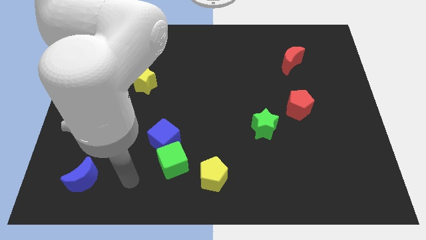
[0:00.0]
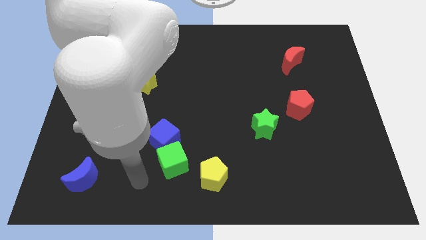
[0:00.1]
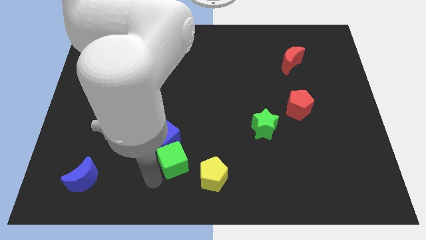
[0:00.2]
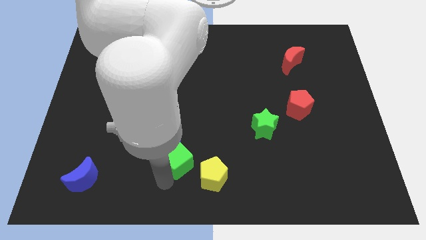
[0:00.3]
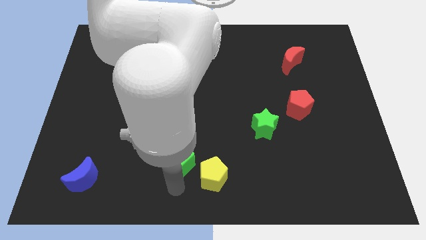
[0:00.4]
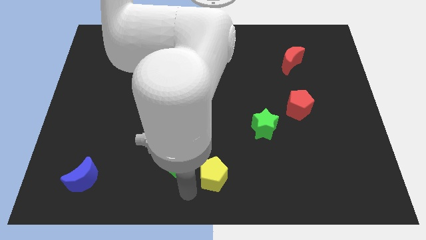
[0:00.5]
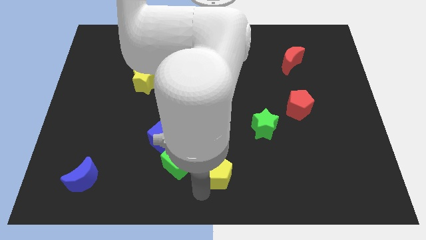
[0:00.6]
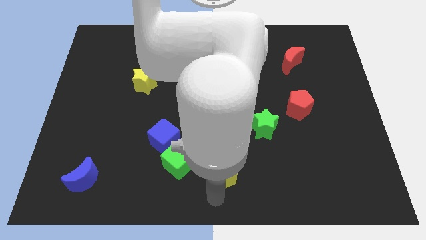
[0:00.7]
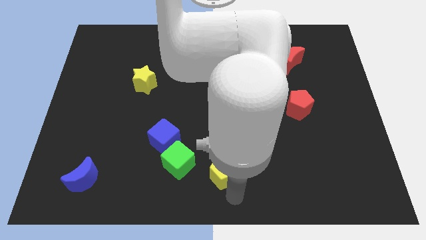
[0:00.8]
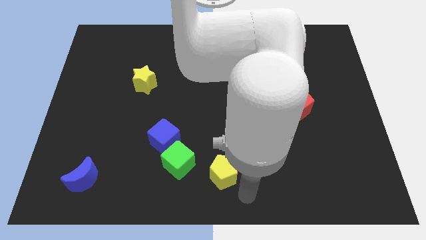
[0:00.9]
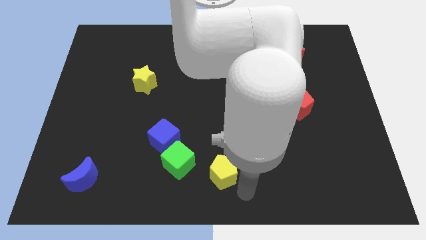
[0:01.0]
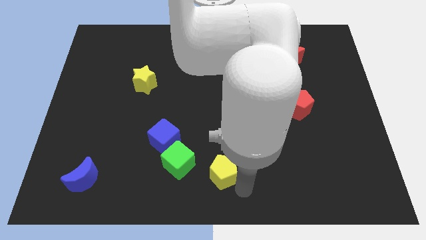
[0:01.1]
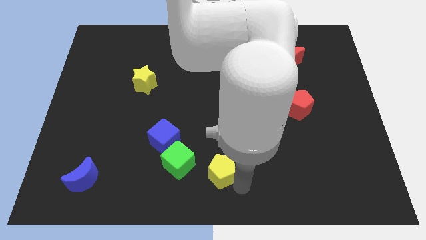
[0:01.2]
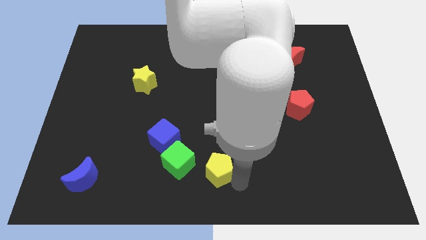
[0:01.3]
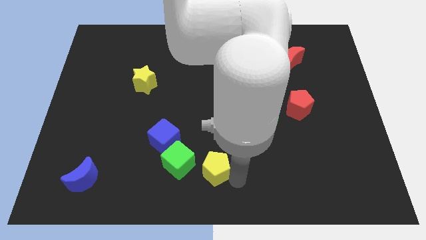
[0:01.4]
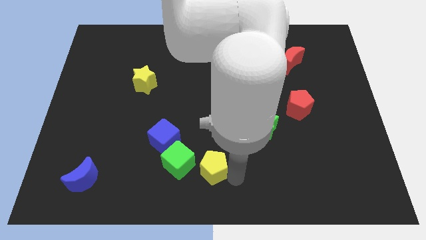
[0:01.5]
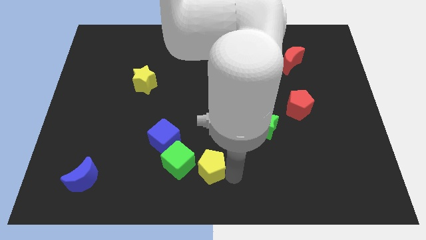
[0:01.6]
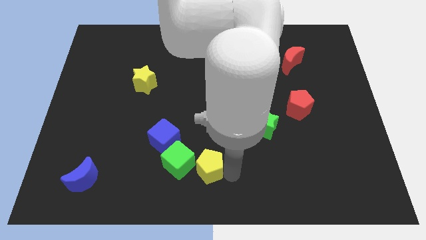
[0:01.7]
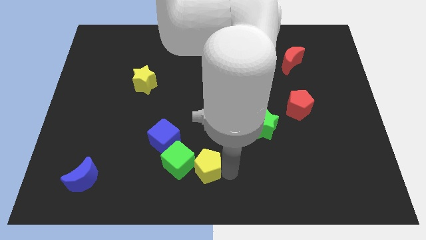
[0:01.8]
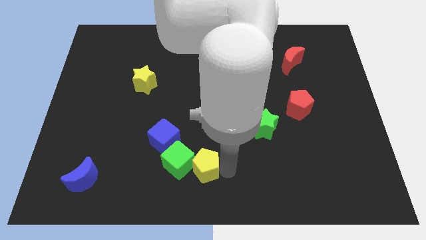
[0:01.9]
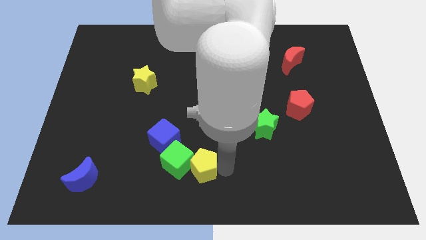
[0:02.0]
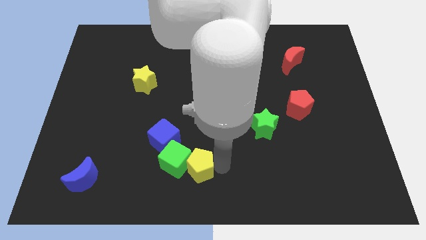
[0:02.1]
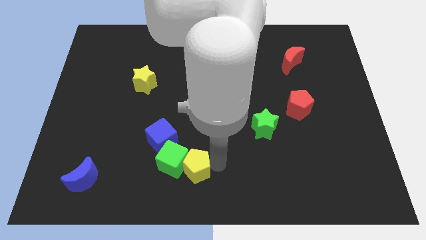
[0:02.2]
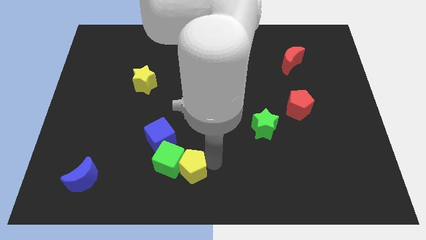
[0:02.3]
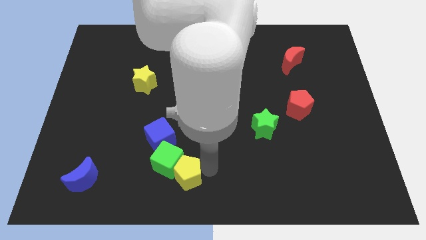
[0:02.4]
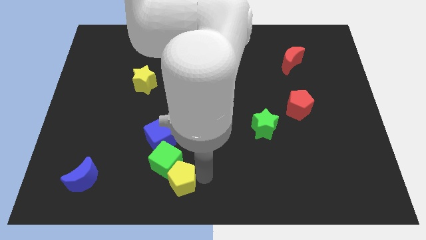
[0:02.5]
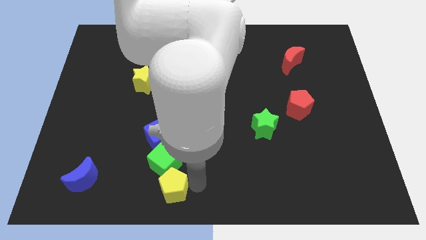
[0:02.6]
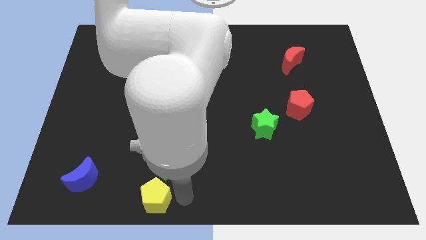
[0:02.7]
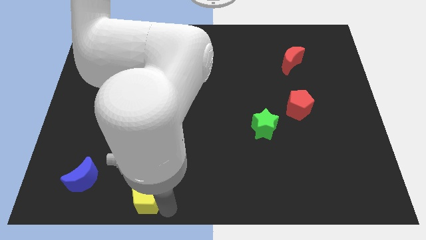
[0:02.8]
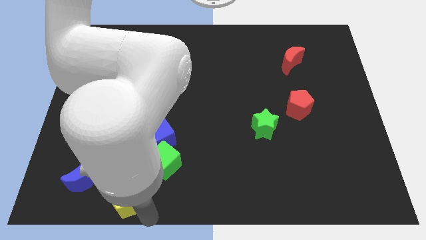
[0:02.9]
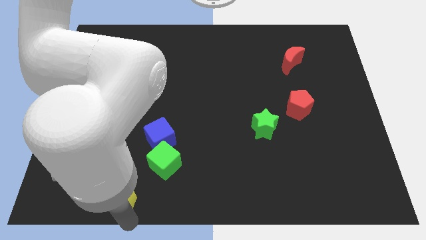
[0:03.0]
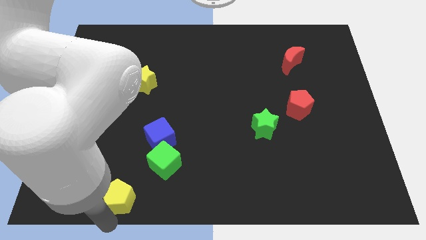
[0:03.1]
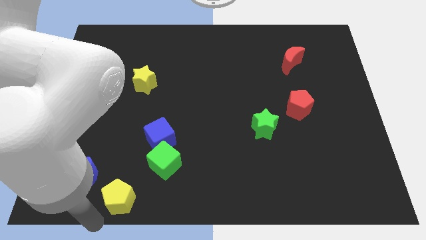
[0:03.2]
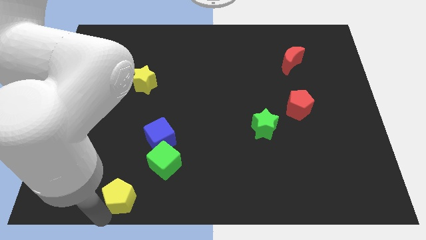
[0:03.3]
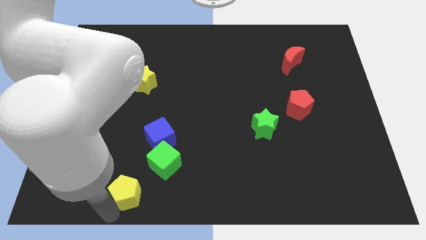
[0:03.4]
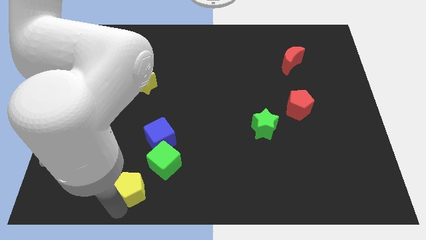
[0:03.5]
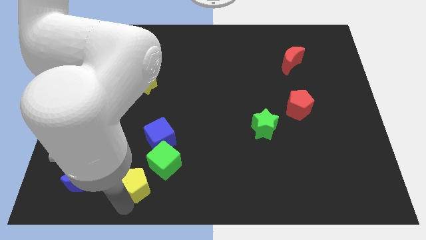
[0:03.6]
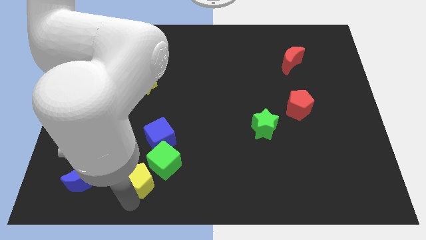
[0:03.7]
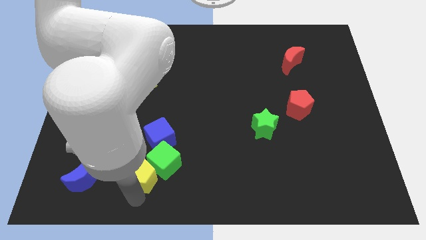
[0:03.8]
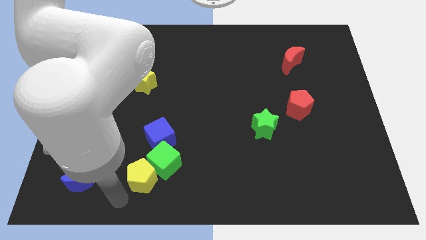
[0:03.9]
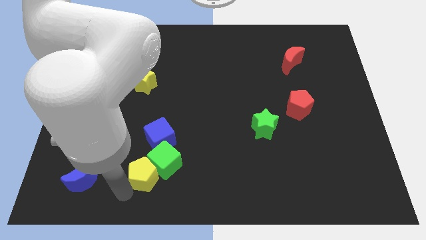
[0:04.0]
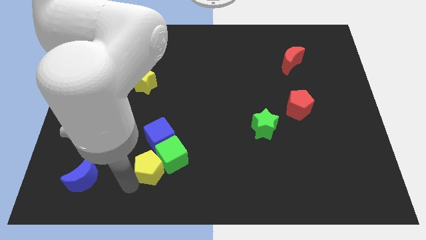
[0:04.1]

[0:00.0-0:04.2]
slightly move the yellow pentagon up and then left

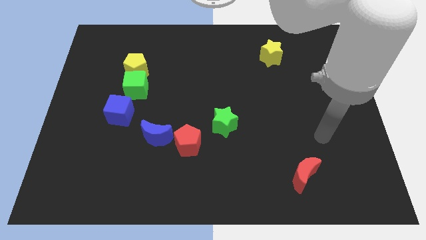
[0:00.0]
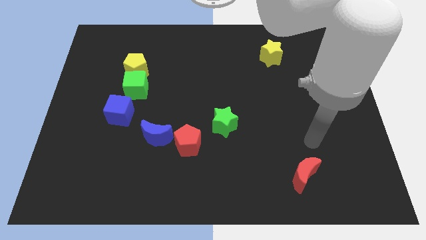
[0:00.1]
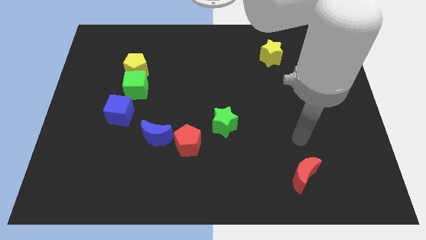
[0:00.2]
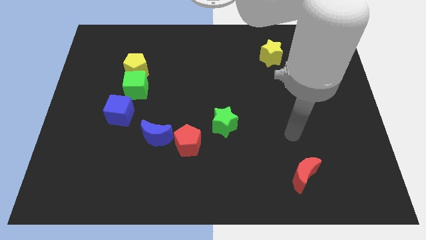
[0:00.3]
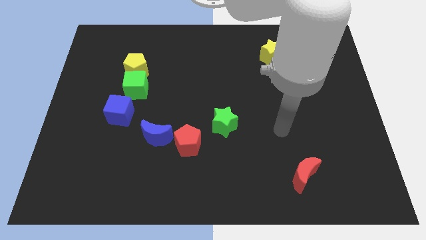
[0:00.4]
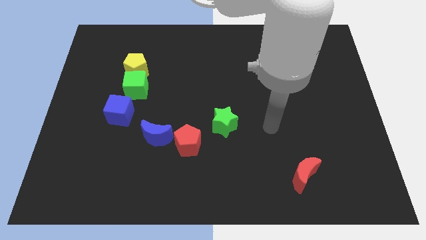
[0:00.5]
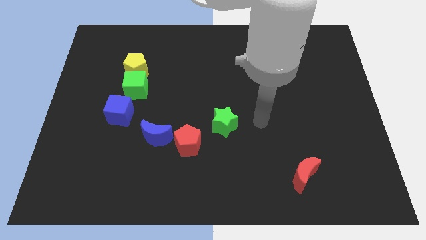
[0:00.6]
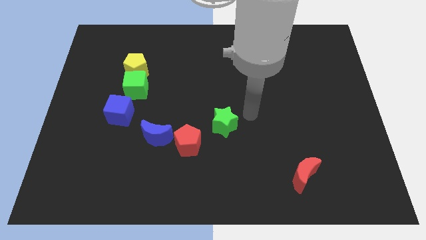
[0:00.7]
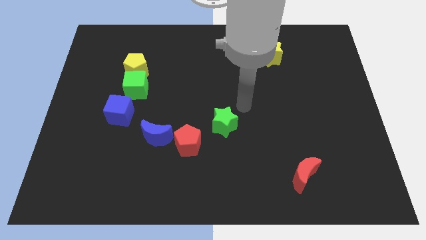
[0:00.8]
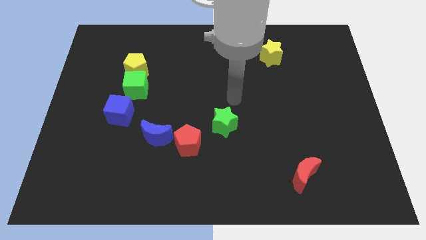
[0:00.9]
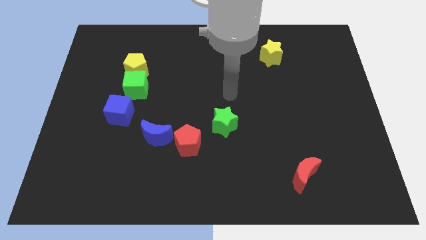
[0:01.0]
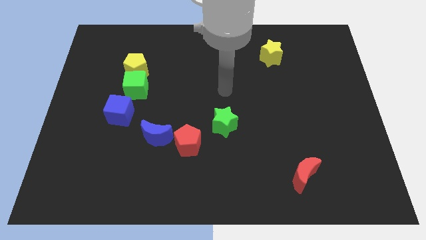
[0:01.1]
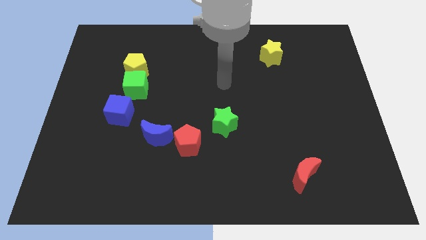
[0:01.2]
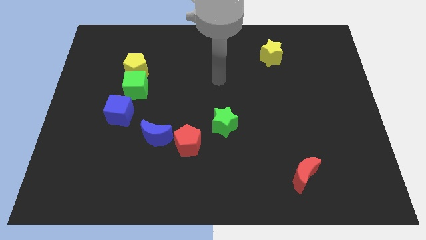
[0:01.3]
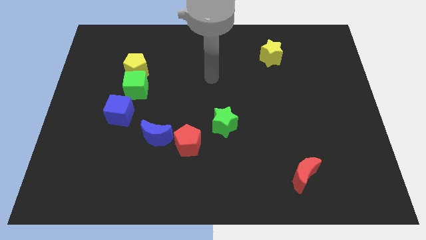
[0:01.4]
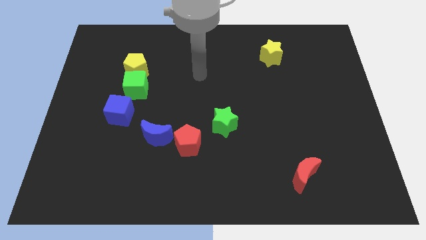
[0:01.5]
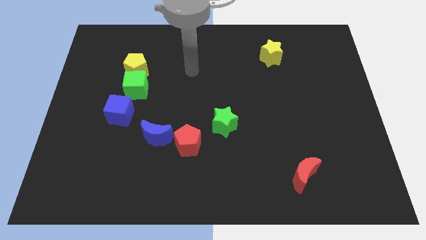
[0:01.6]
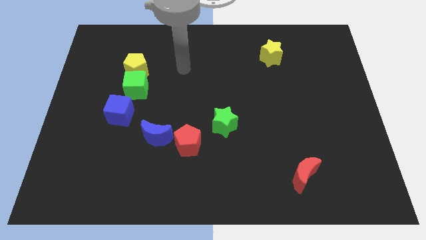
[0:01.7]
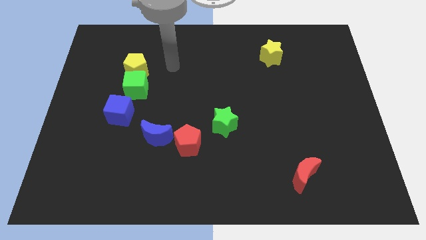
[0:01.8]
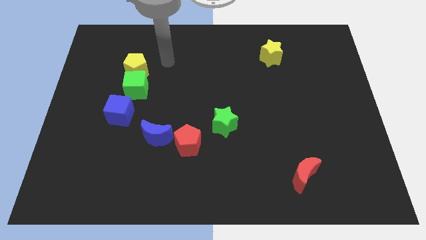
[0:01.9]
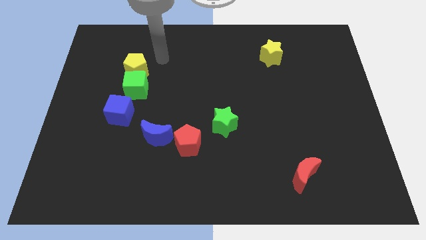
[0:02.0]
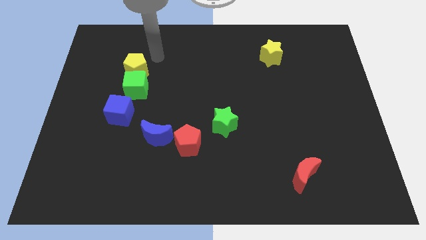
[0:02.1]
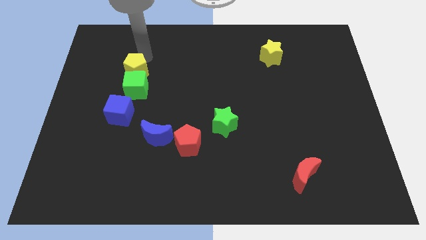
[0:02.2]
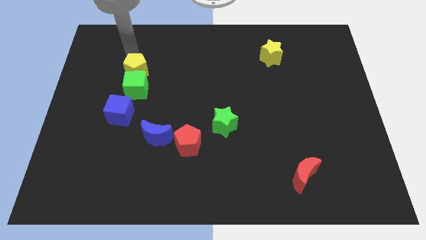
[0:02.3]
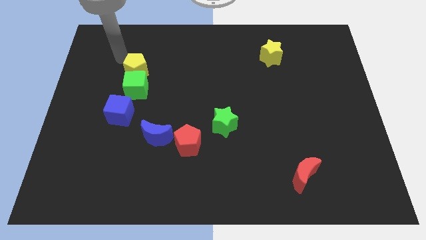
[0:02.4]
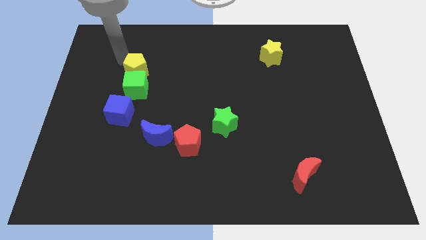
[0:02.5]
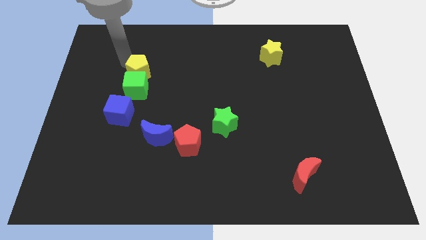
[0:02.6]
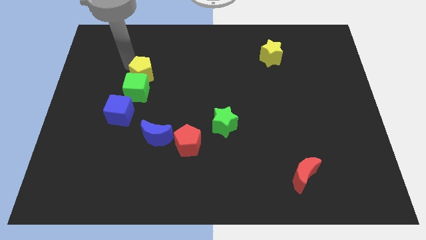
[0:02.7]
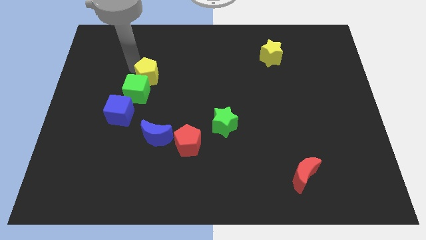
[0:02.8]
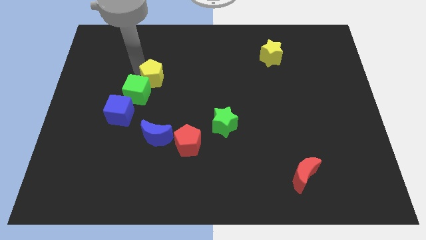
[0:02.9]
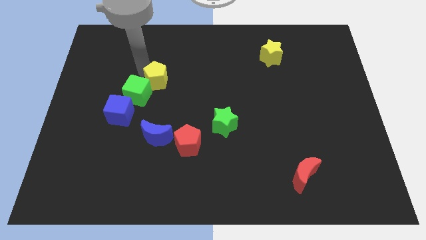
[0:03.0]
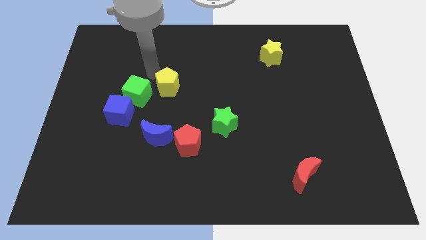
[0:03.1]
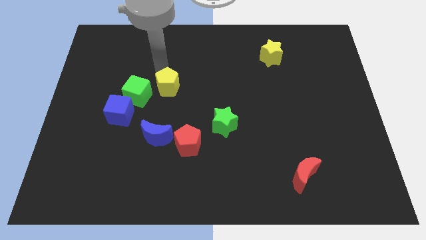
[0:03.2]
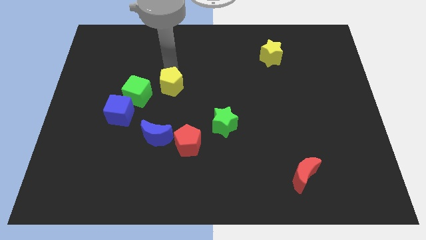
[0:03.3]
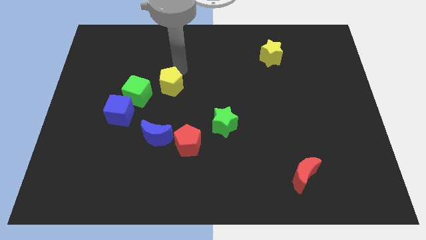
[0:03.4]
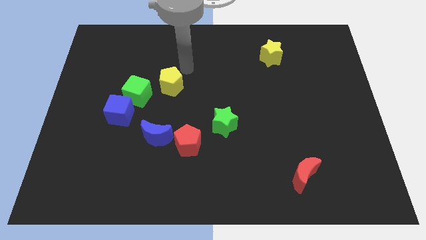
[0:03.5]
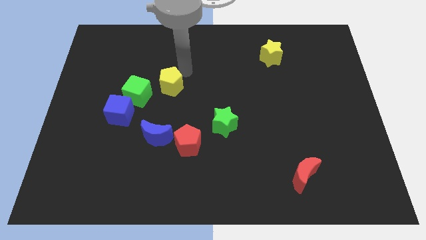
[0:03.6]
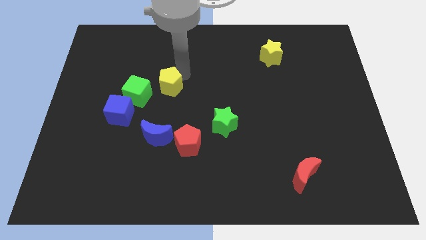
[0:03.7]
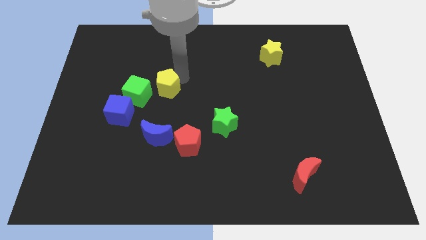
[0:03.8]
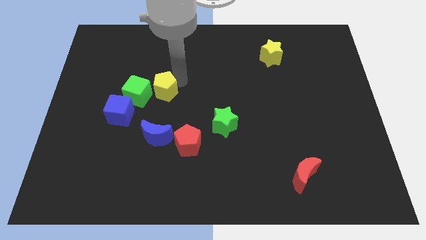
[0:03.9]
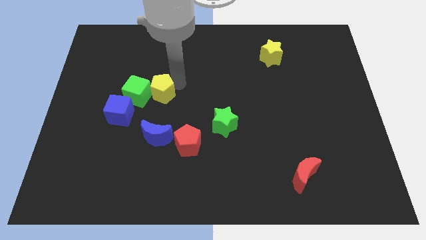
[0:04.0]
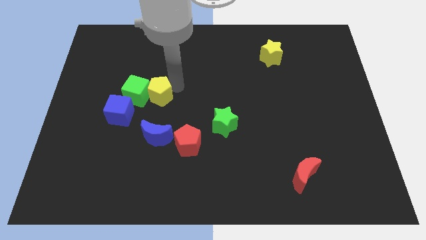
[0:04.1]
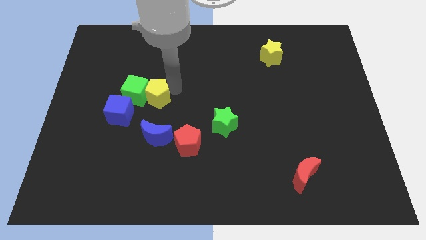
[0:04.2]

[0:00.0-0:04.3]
push the yellow pentagon a little bit downwards
